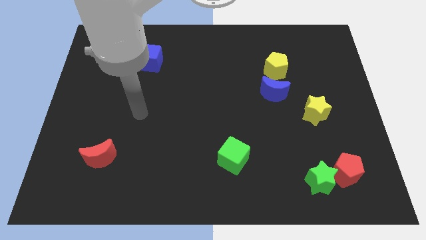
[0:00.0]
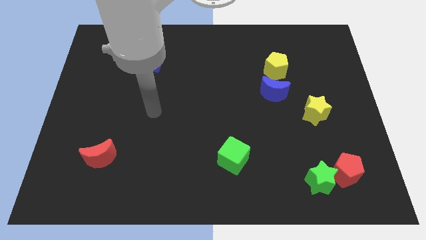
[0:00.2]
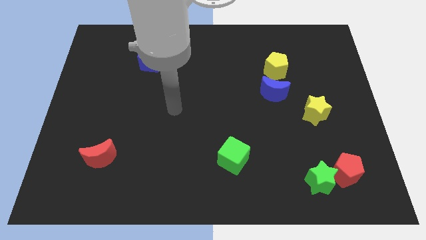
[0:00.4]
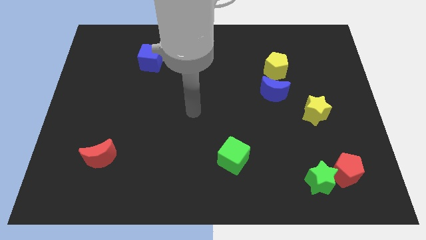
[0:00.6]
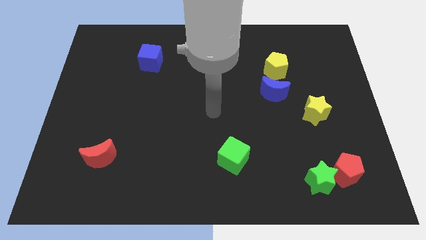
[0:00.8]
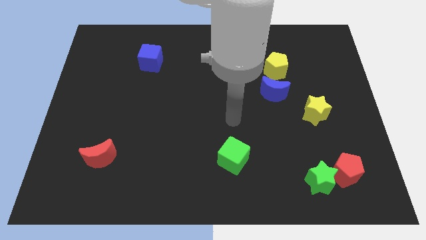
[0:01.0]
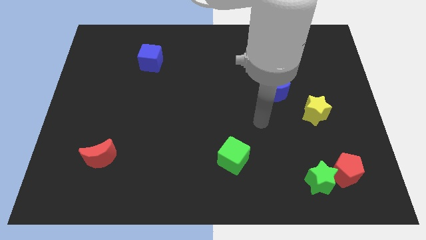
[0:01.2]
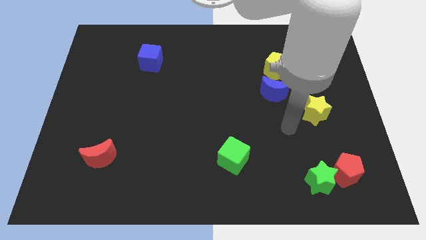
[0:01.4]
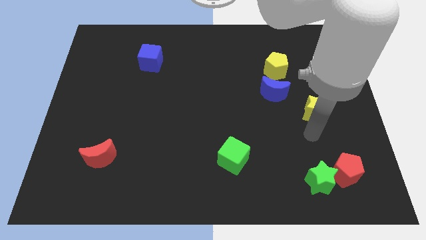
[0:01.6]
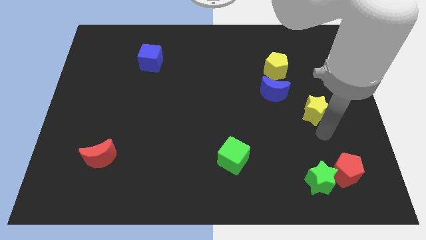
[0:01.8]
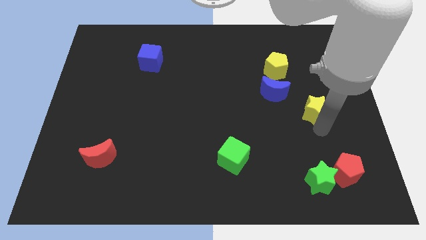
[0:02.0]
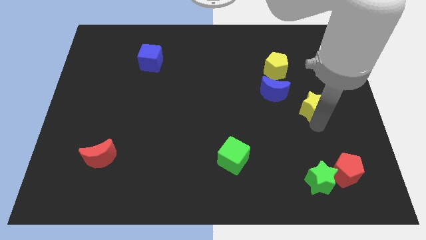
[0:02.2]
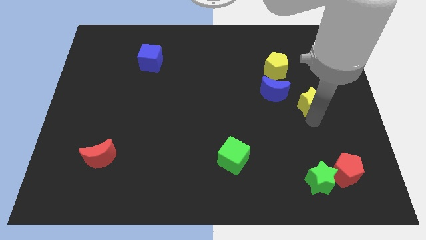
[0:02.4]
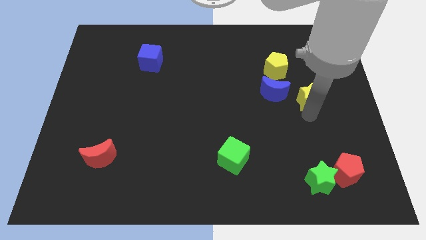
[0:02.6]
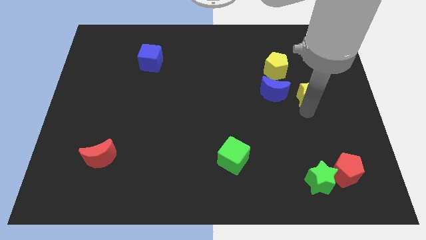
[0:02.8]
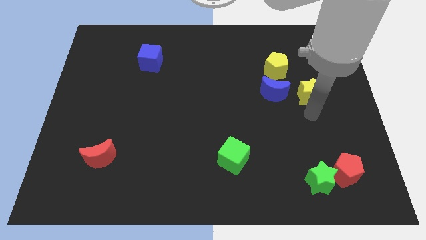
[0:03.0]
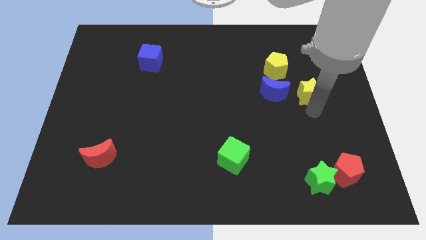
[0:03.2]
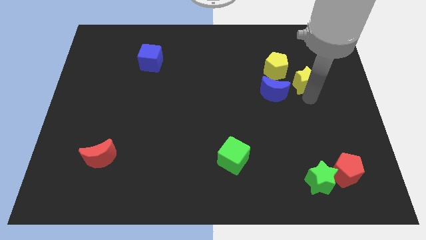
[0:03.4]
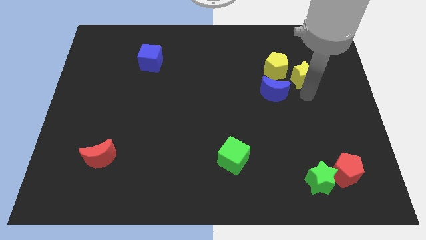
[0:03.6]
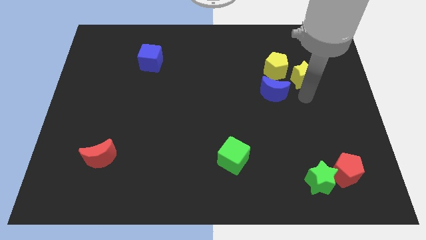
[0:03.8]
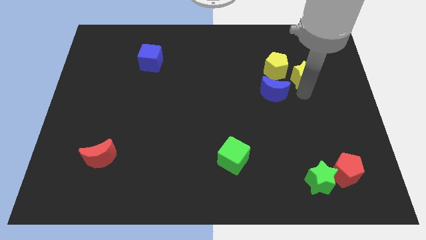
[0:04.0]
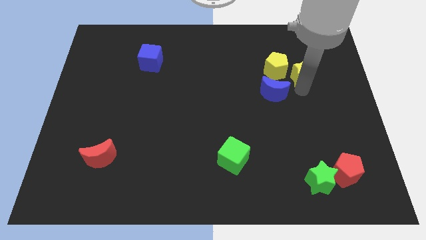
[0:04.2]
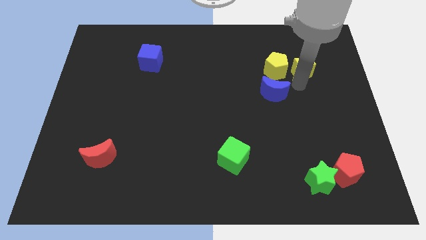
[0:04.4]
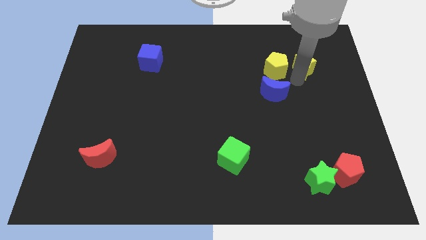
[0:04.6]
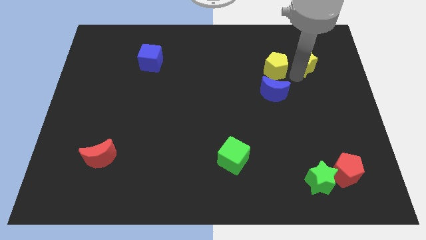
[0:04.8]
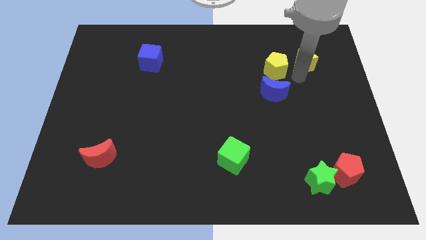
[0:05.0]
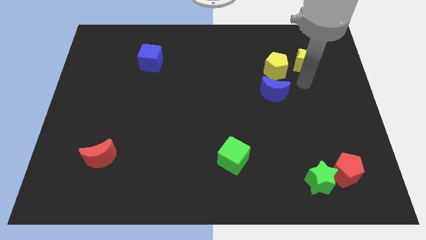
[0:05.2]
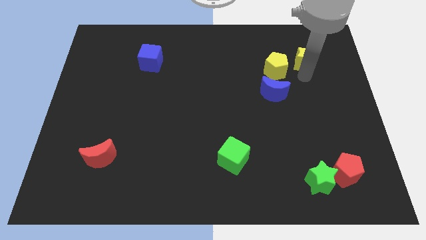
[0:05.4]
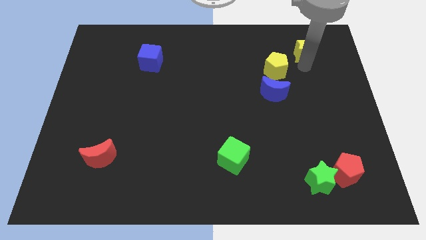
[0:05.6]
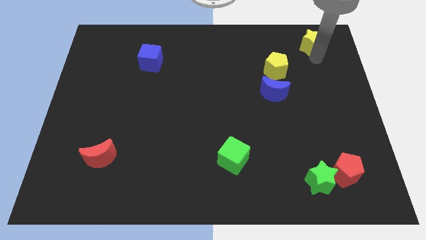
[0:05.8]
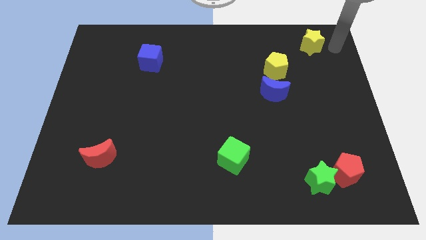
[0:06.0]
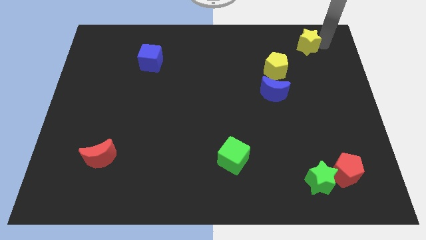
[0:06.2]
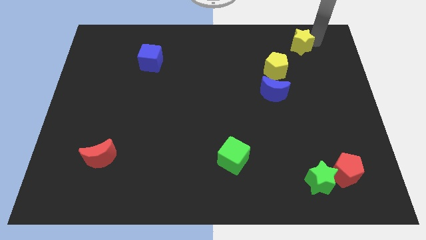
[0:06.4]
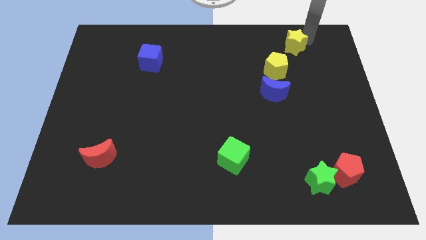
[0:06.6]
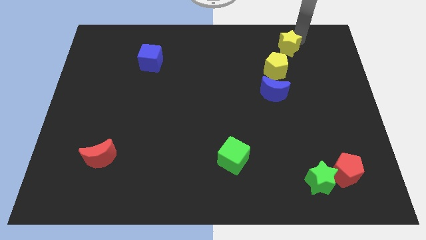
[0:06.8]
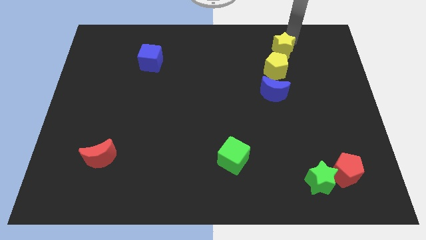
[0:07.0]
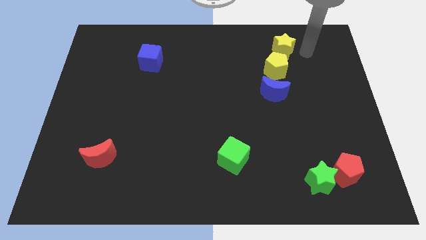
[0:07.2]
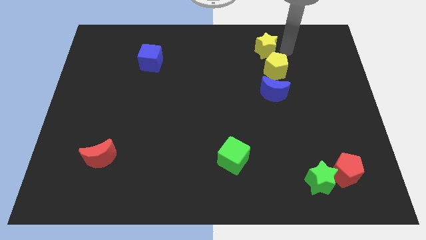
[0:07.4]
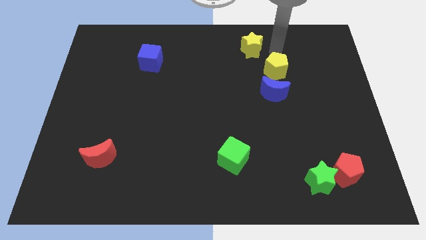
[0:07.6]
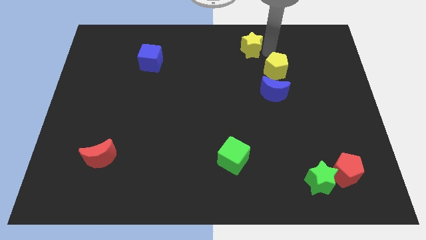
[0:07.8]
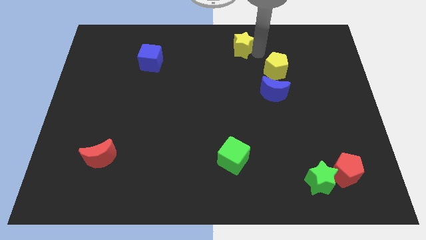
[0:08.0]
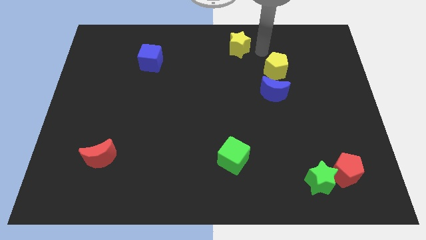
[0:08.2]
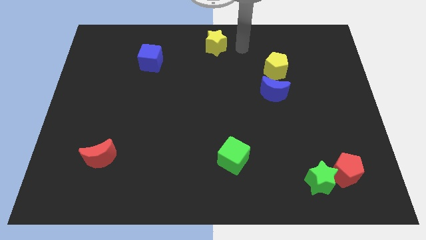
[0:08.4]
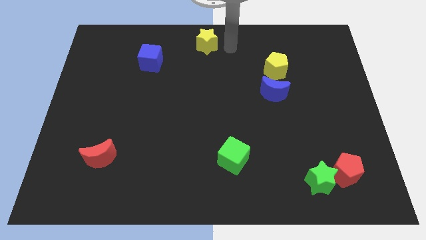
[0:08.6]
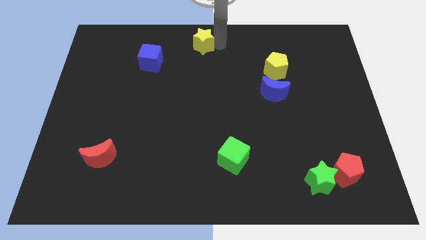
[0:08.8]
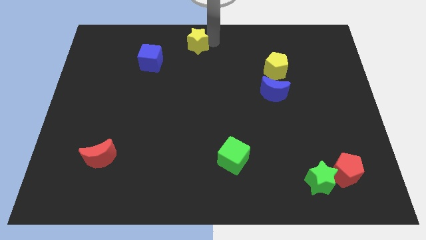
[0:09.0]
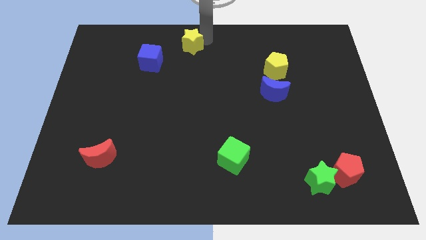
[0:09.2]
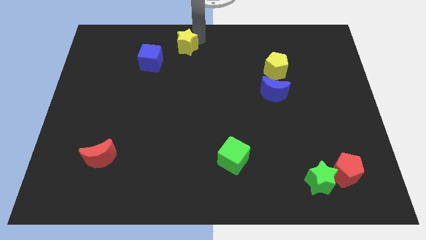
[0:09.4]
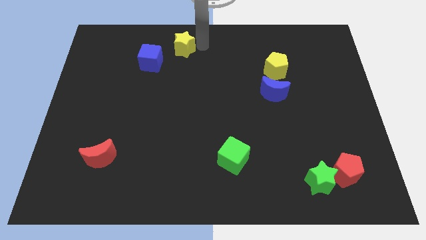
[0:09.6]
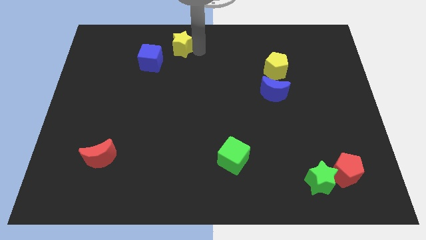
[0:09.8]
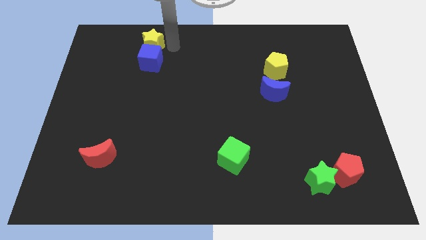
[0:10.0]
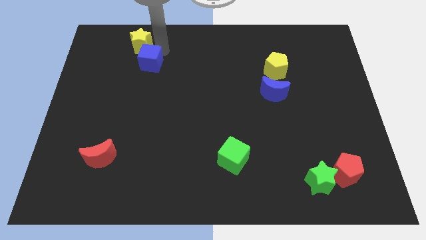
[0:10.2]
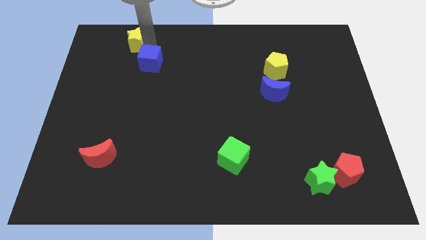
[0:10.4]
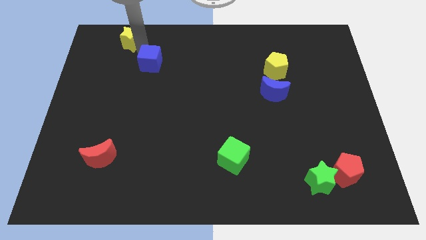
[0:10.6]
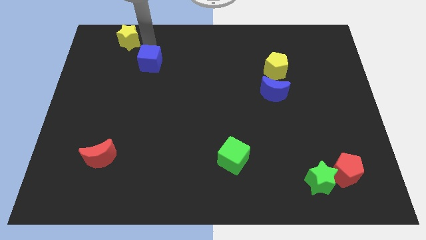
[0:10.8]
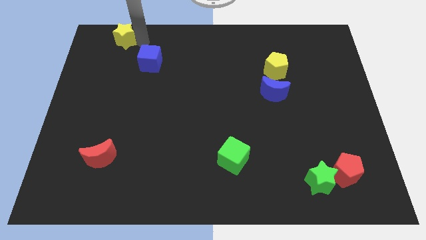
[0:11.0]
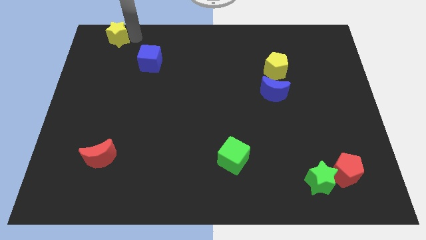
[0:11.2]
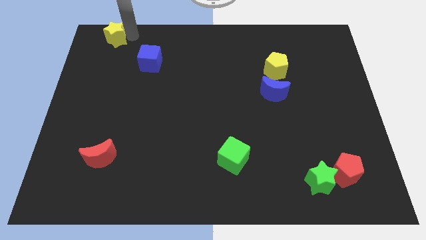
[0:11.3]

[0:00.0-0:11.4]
slide the yellow star to the upper left corner

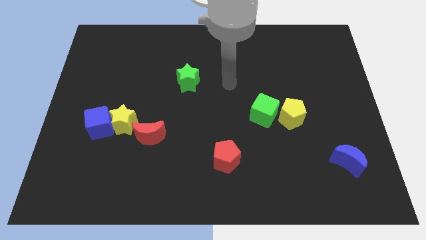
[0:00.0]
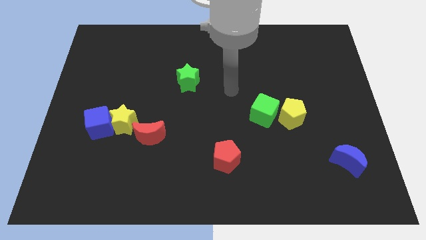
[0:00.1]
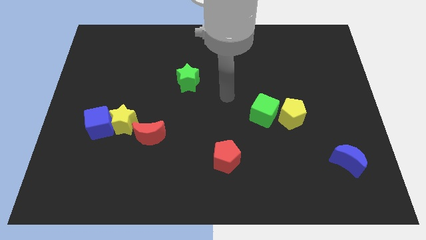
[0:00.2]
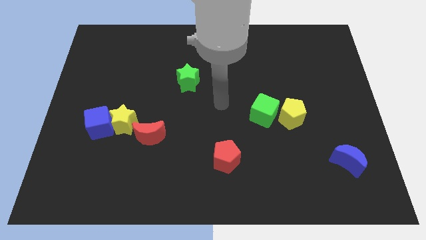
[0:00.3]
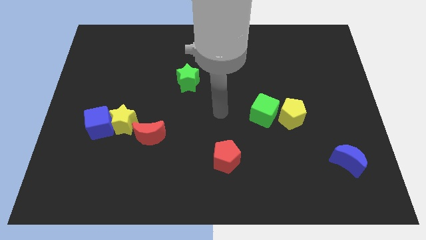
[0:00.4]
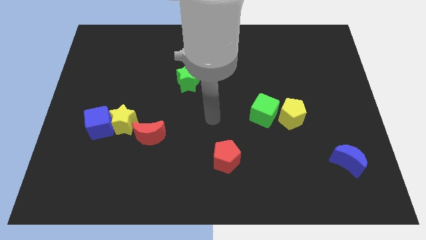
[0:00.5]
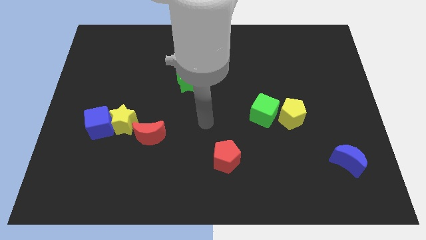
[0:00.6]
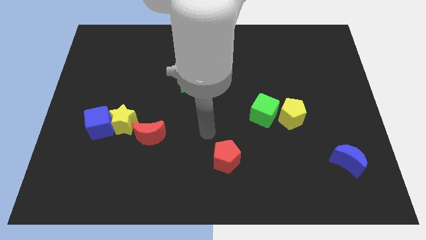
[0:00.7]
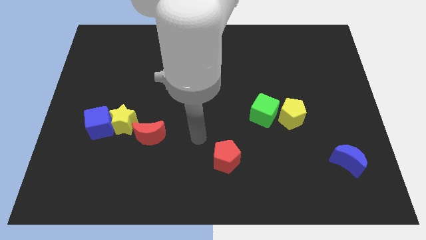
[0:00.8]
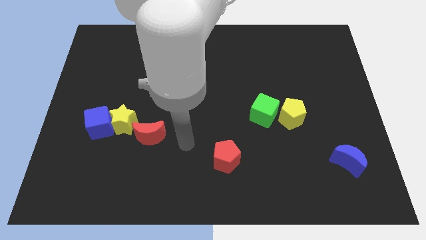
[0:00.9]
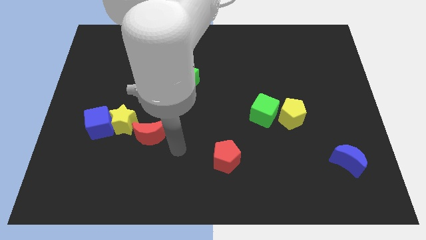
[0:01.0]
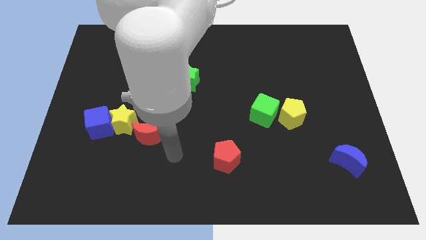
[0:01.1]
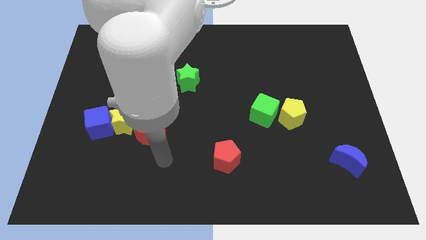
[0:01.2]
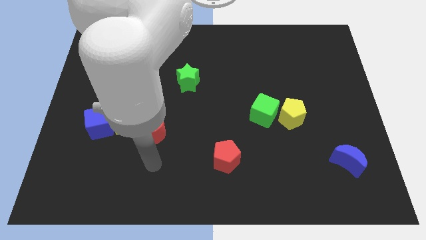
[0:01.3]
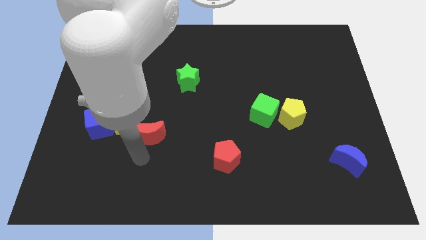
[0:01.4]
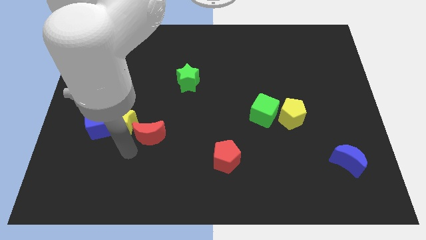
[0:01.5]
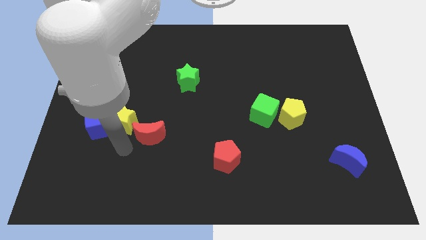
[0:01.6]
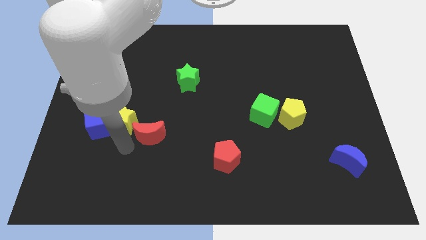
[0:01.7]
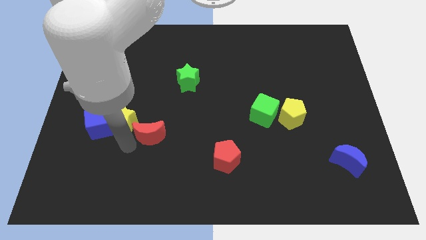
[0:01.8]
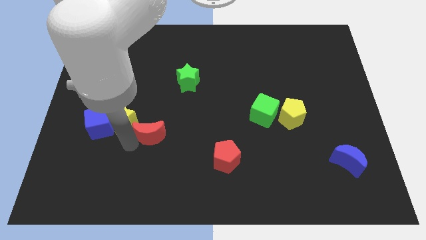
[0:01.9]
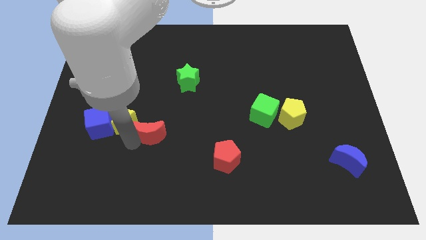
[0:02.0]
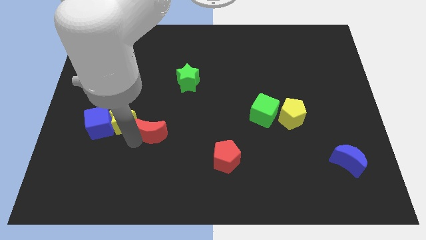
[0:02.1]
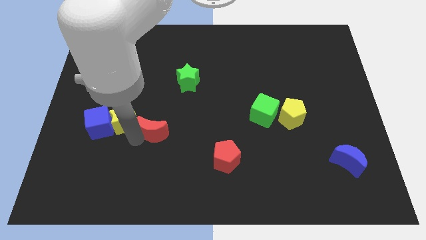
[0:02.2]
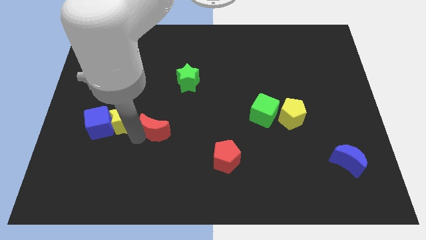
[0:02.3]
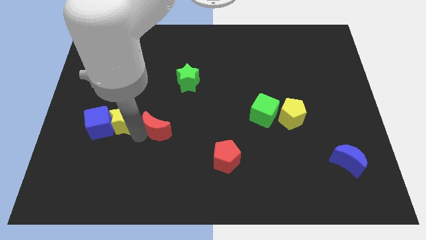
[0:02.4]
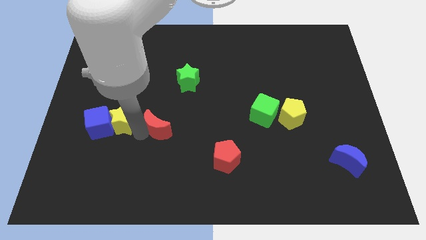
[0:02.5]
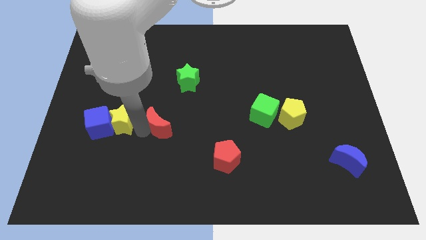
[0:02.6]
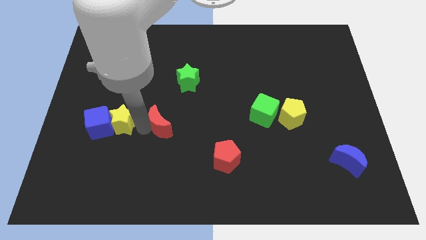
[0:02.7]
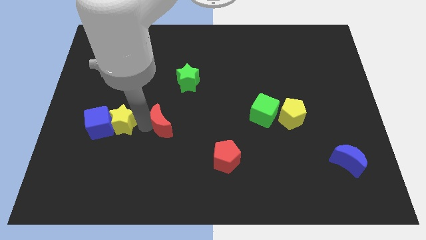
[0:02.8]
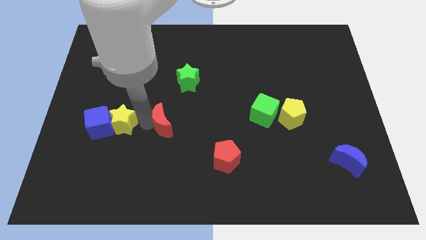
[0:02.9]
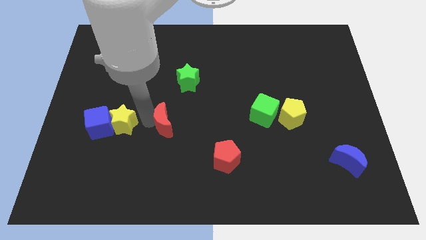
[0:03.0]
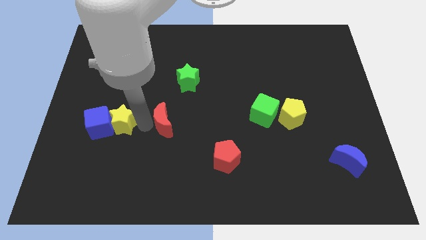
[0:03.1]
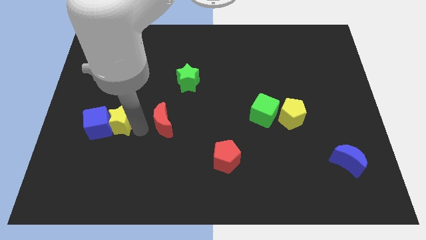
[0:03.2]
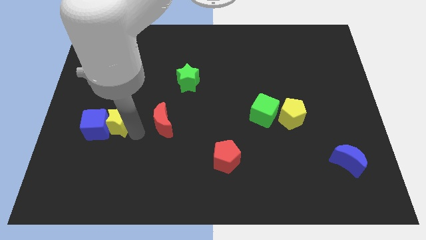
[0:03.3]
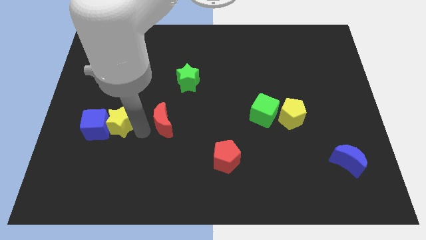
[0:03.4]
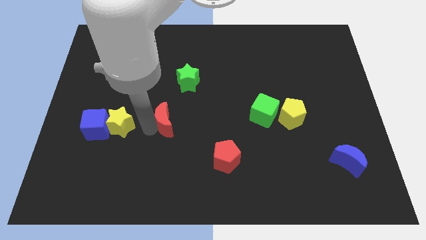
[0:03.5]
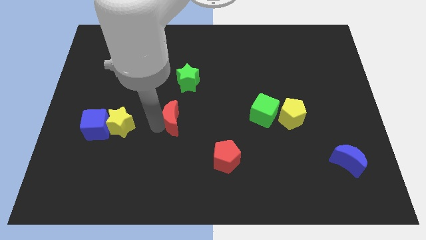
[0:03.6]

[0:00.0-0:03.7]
push the red moon to the center of the board
